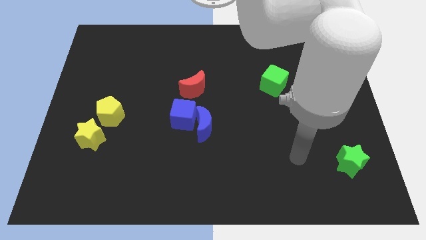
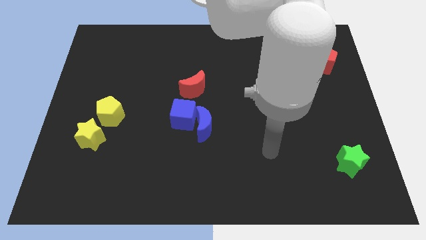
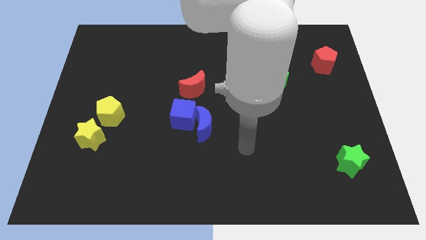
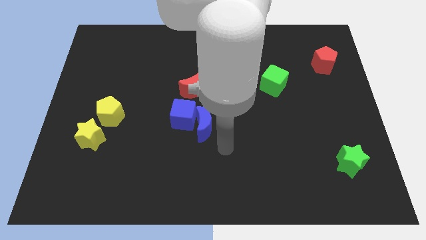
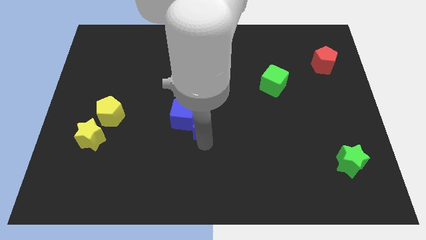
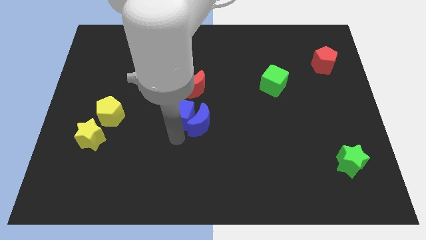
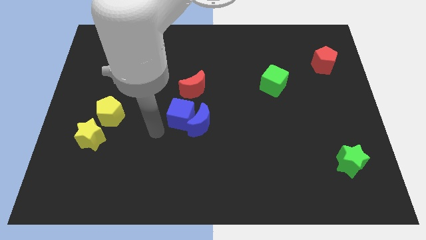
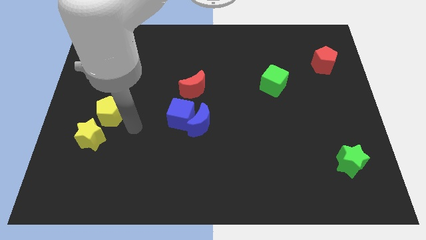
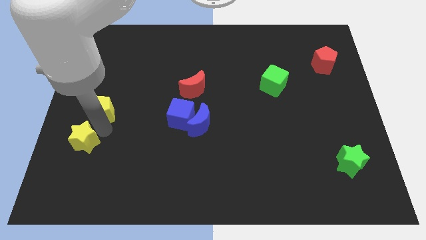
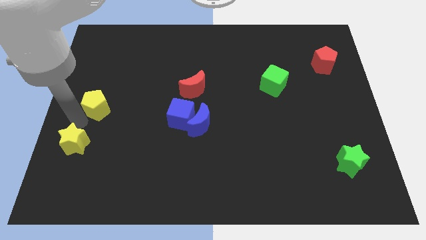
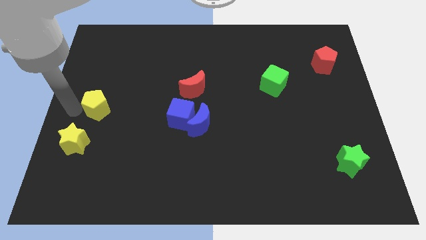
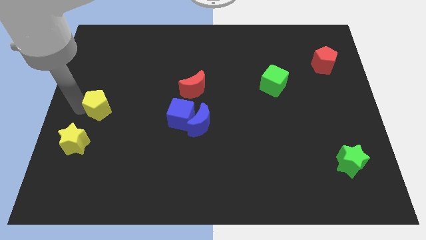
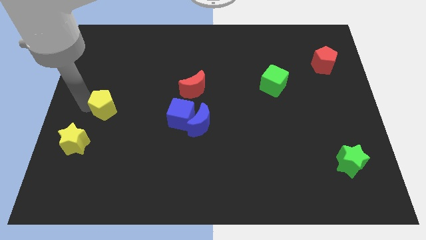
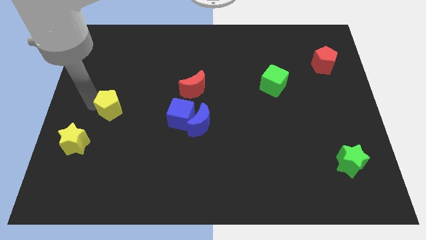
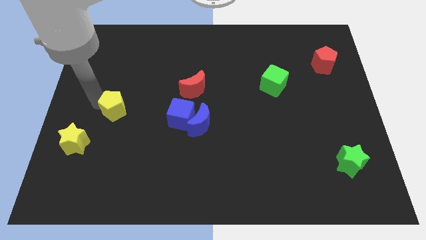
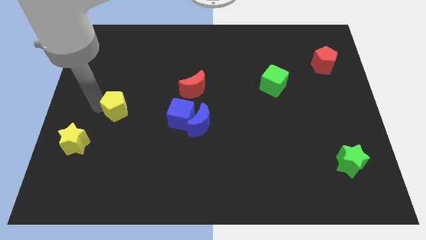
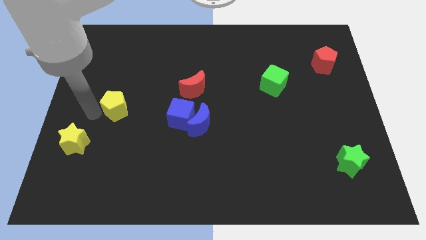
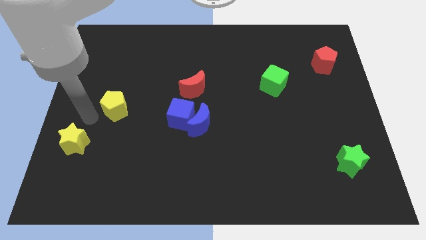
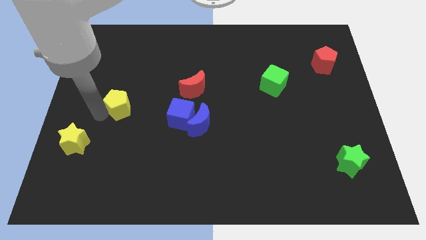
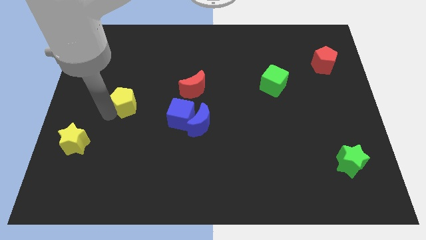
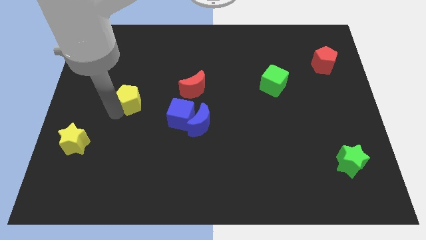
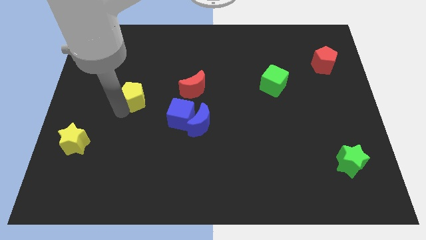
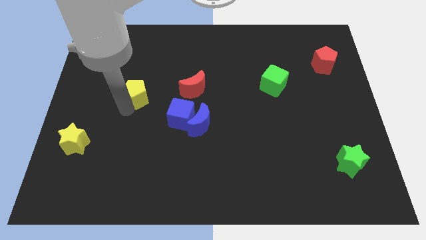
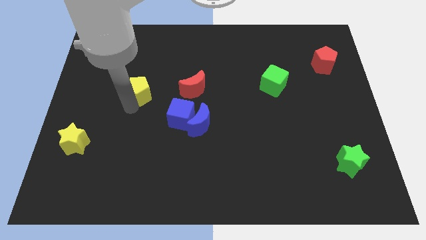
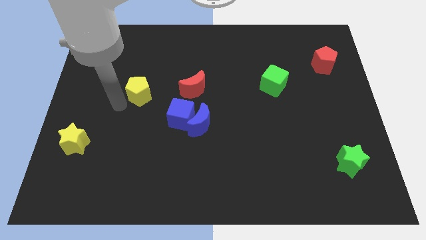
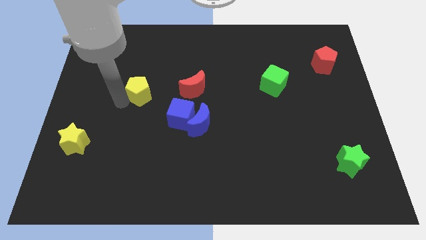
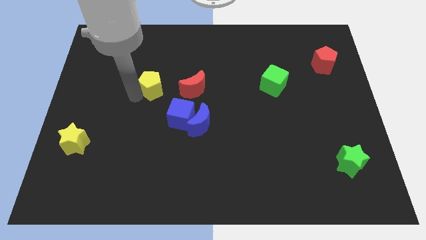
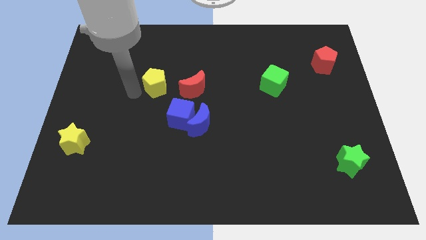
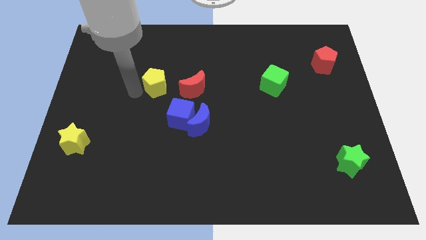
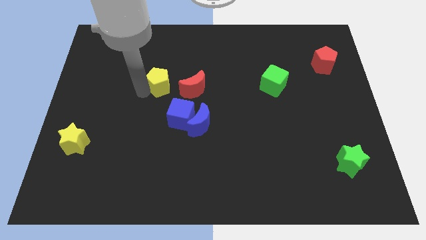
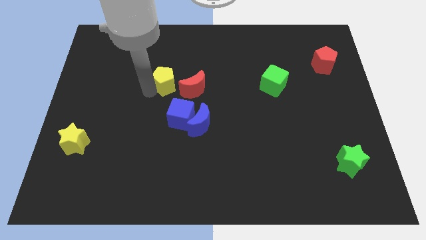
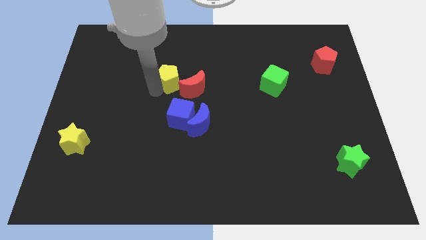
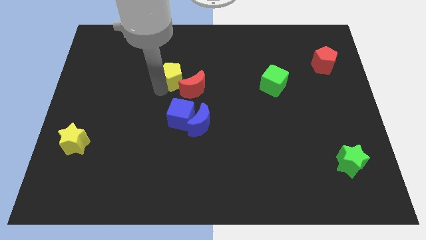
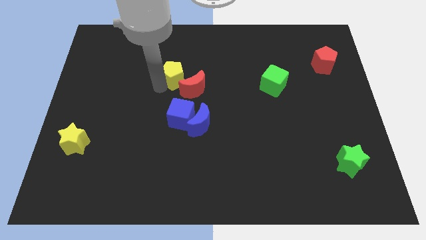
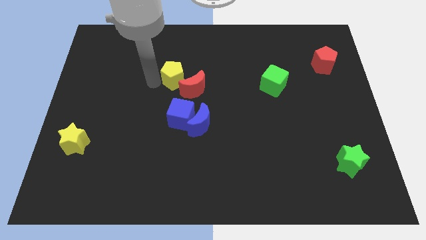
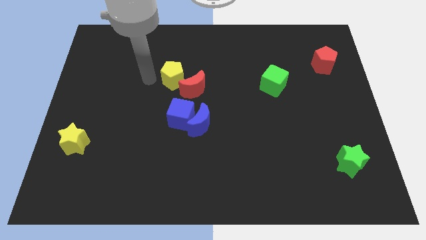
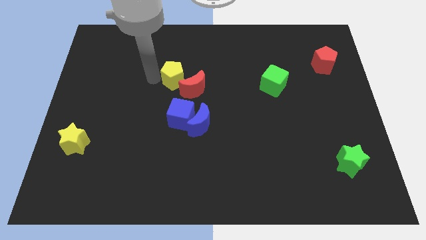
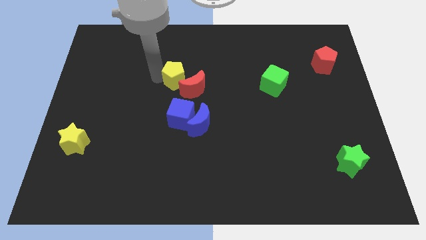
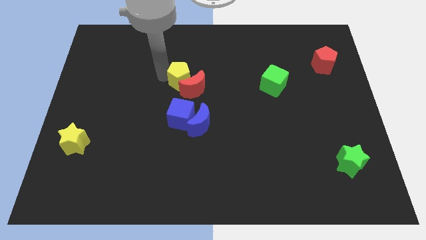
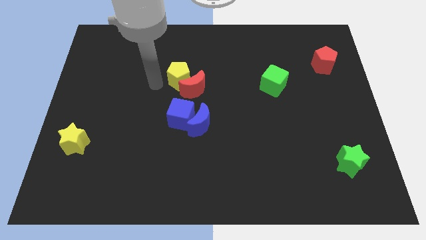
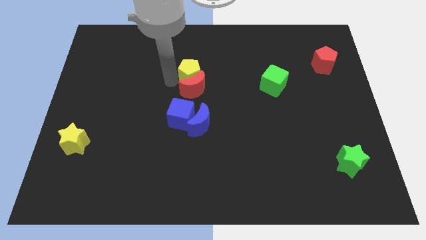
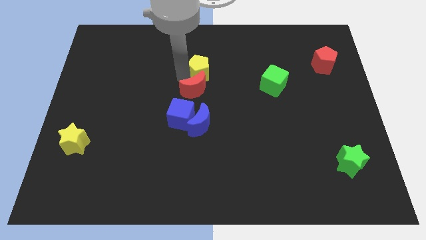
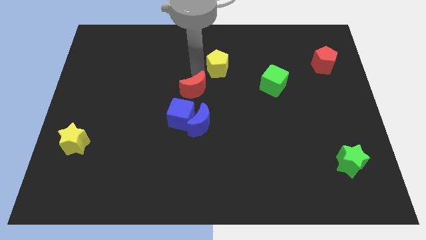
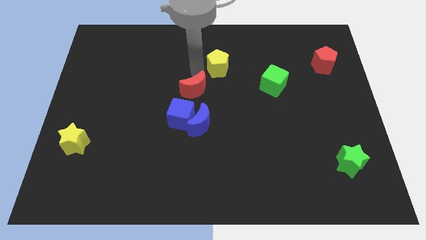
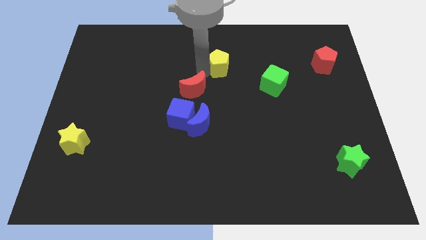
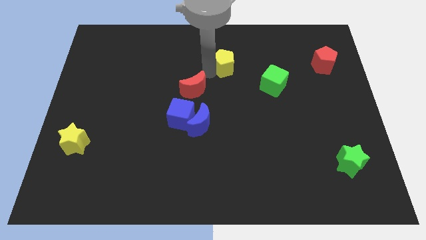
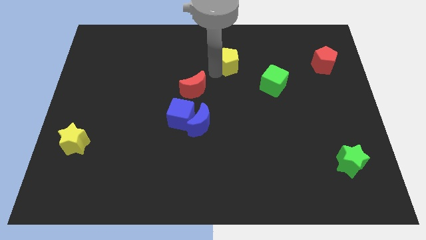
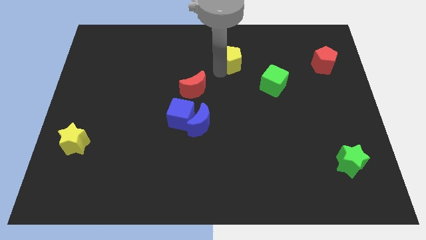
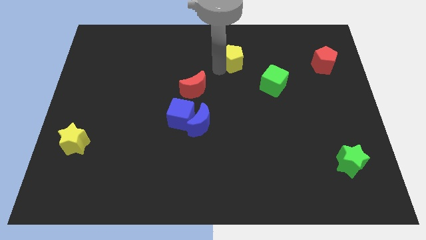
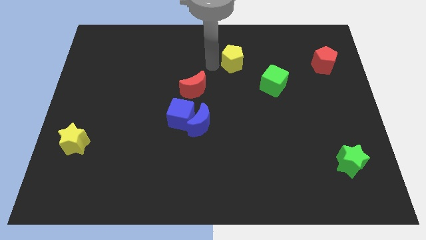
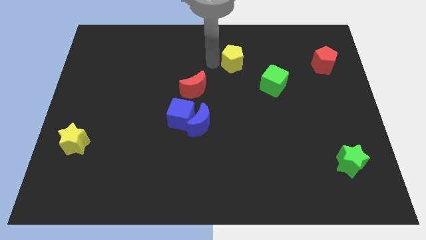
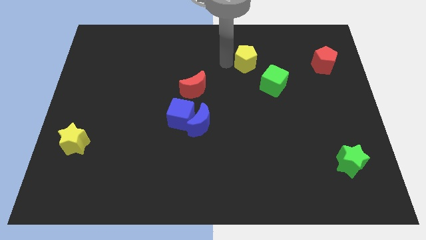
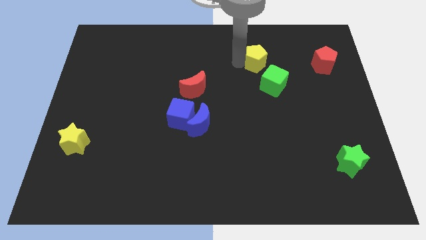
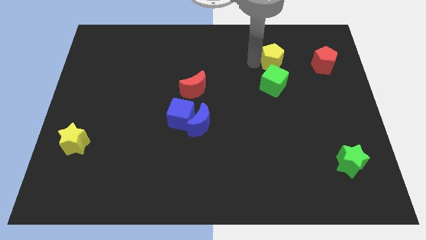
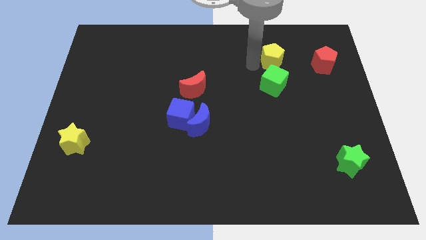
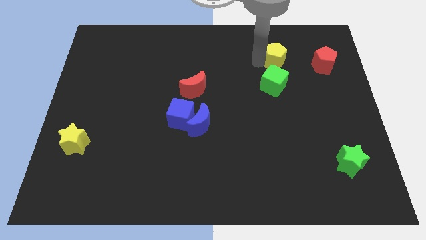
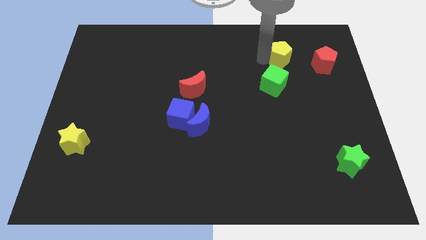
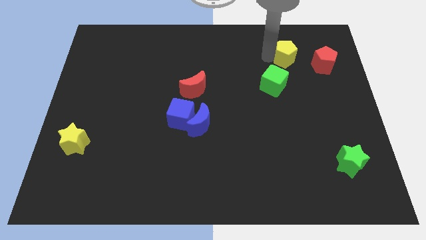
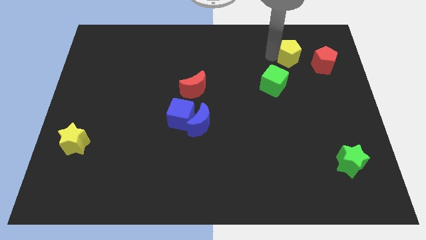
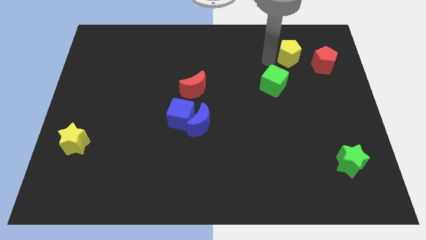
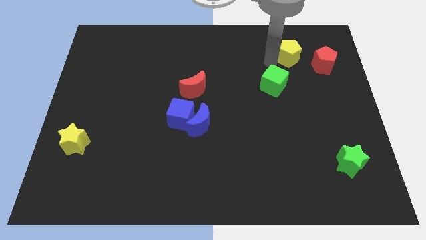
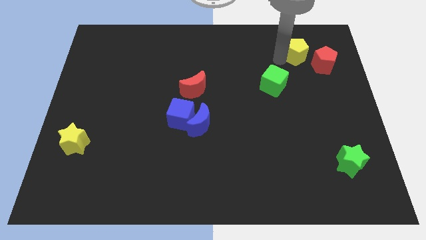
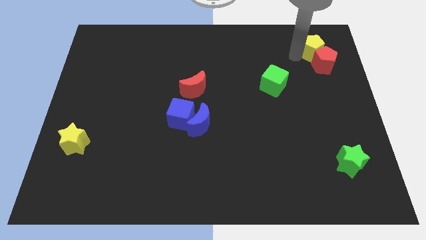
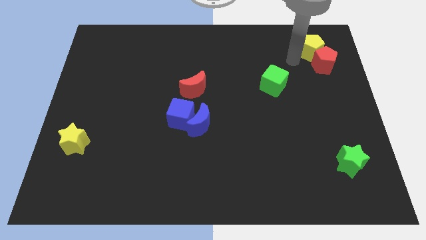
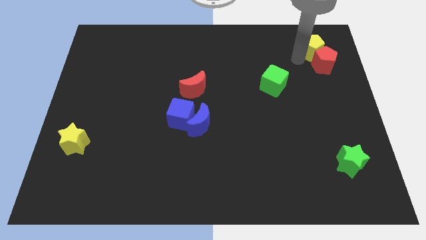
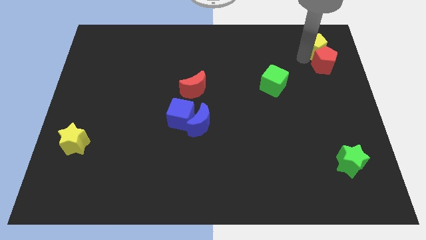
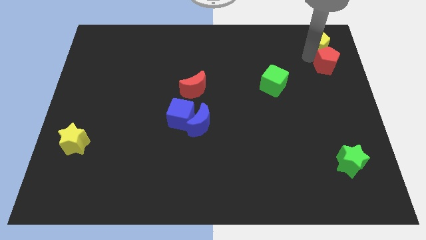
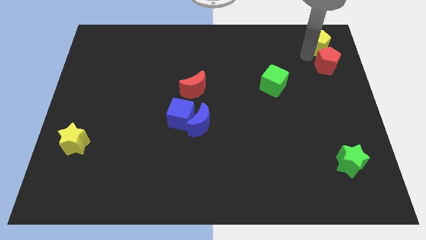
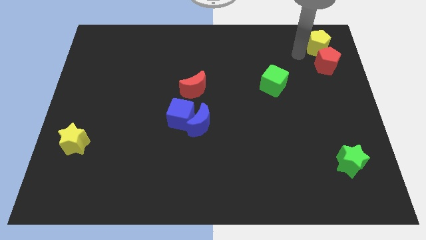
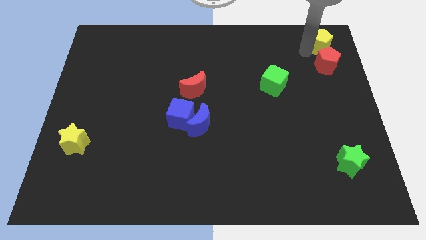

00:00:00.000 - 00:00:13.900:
put the yellow pentagon to the top right of the board

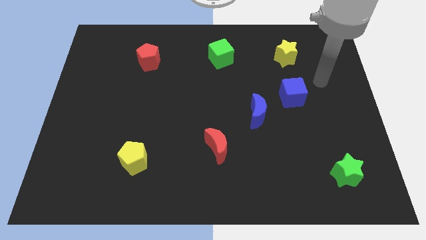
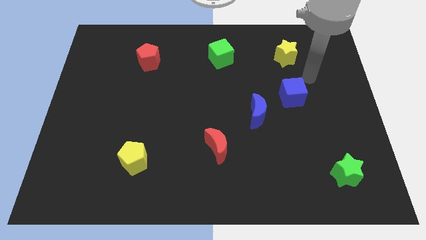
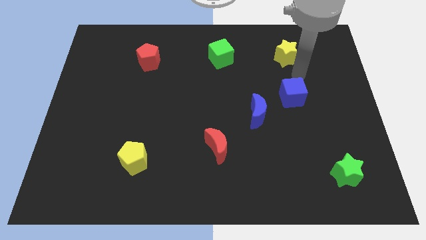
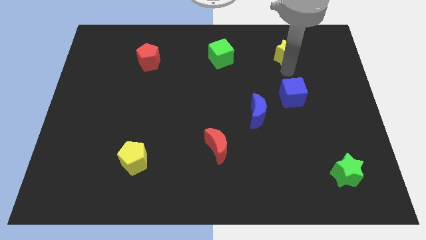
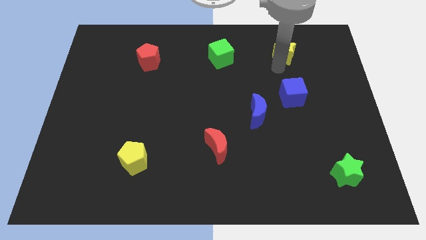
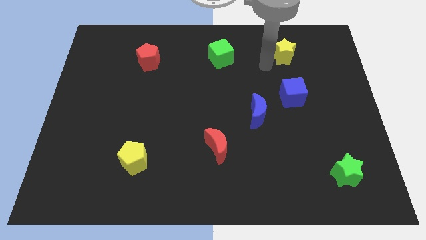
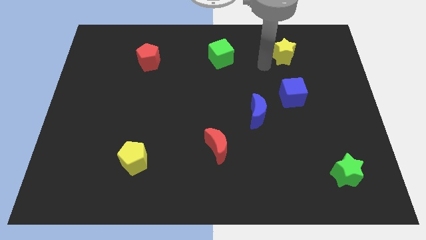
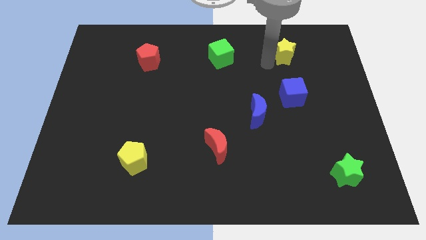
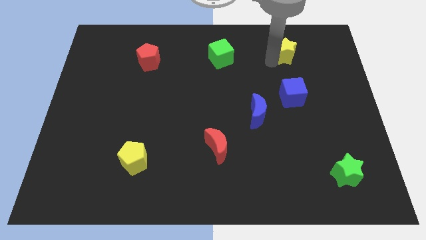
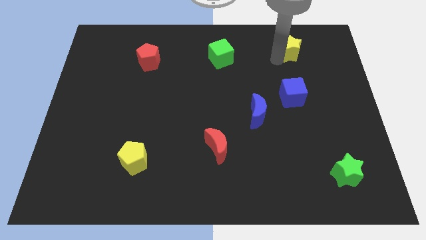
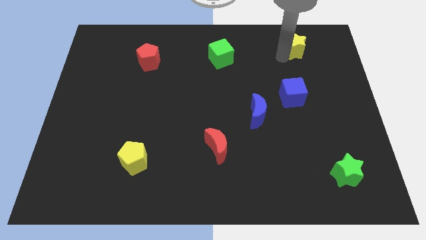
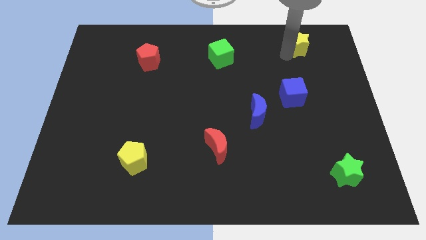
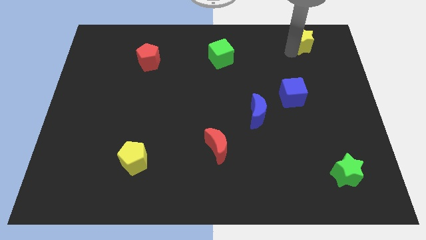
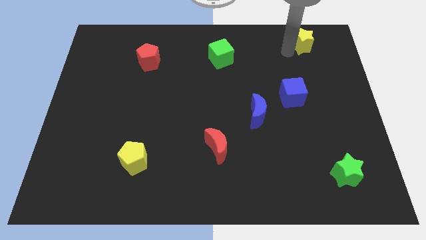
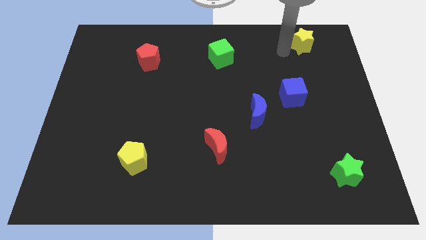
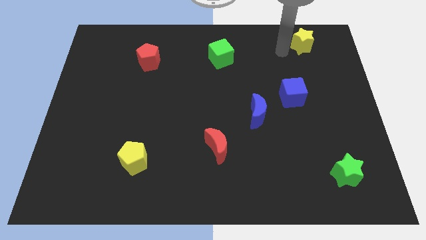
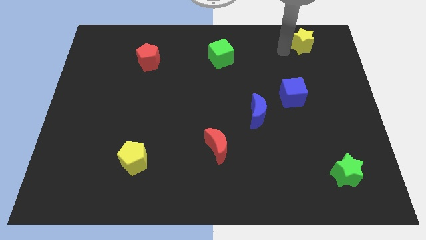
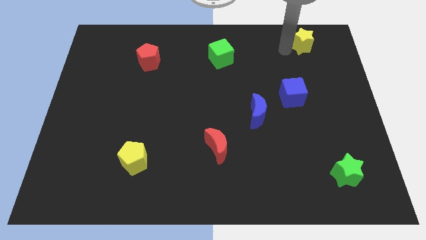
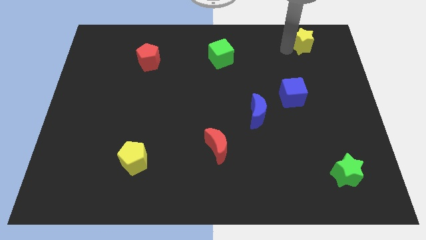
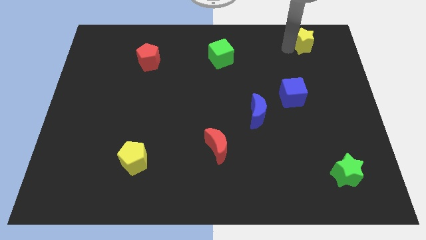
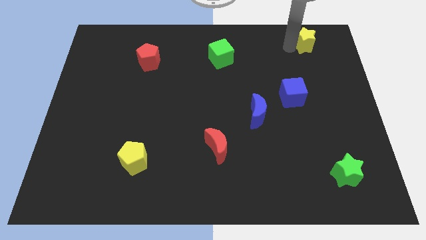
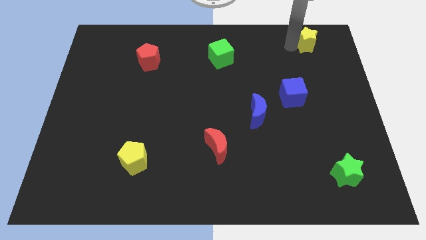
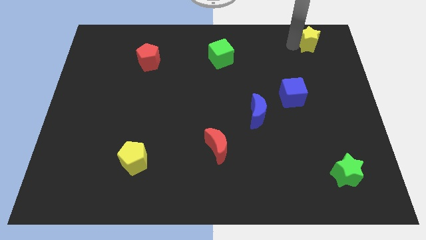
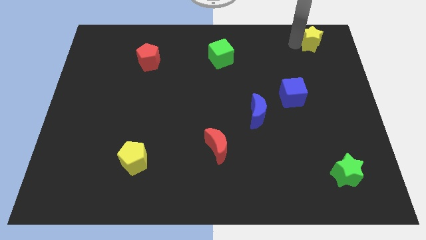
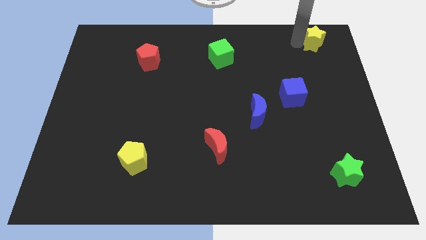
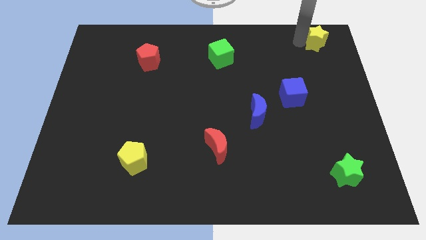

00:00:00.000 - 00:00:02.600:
move the yellow star to the top right of the board
